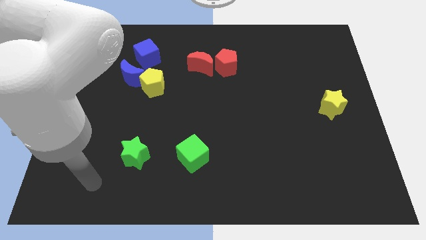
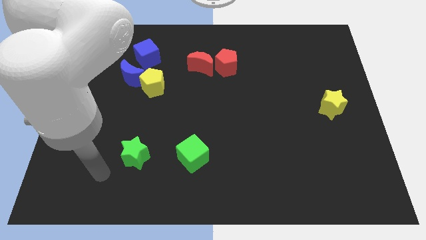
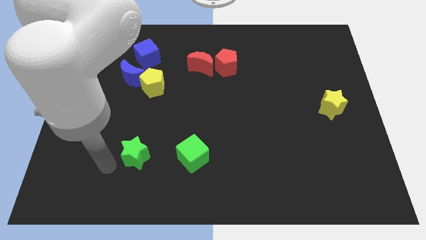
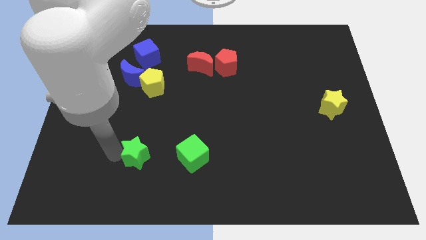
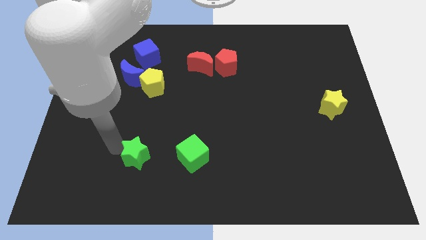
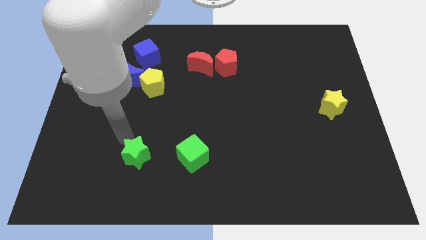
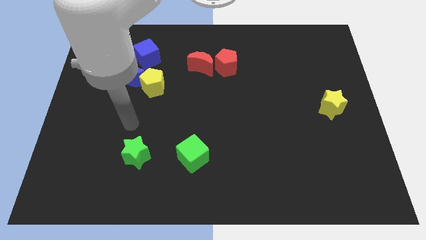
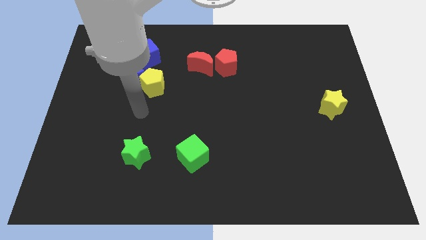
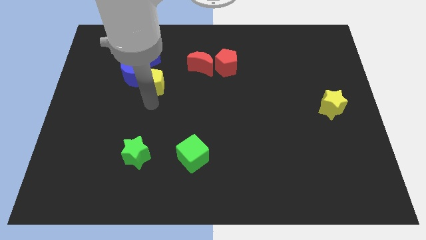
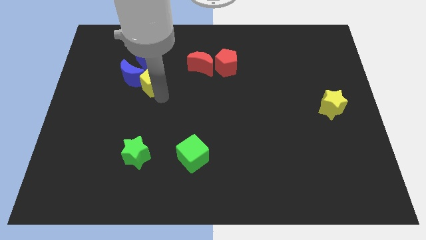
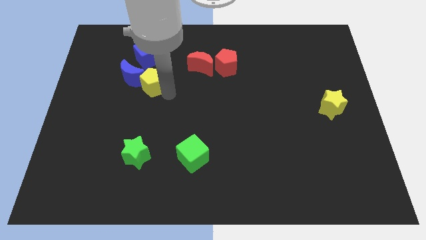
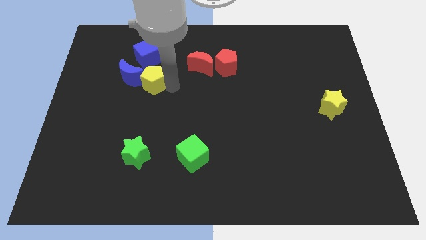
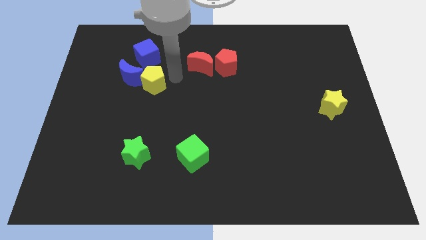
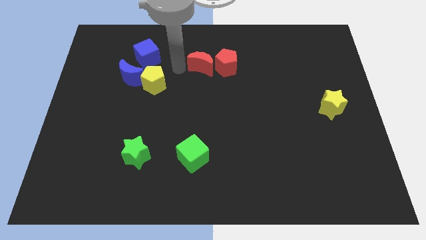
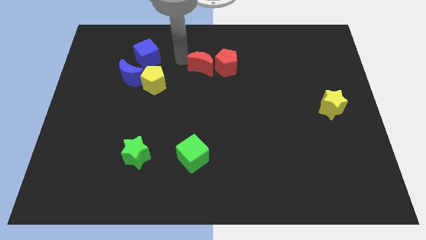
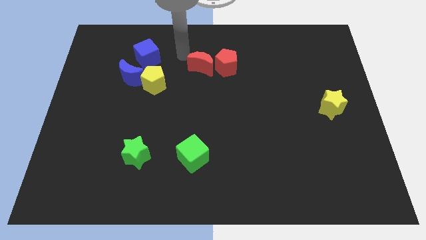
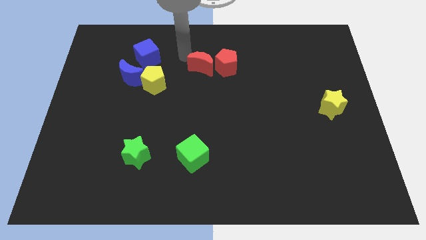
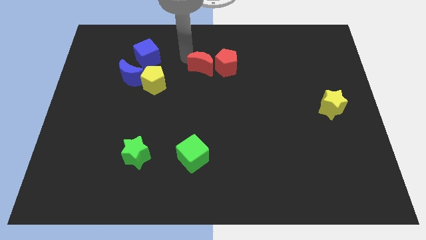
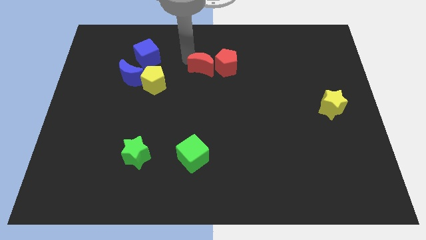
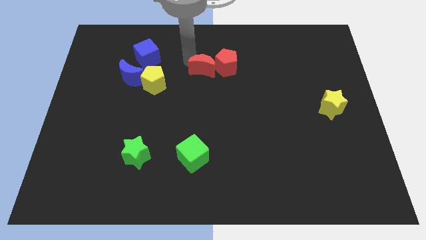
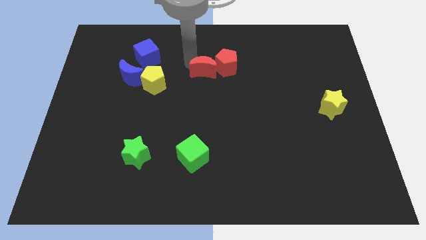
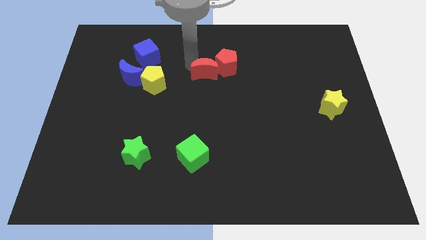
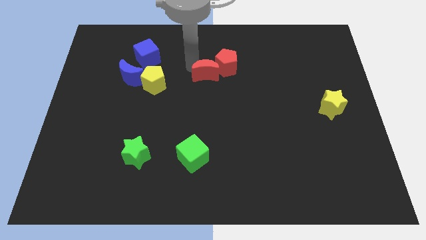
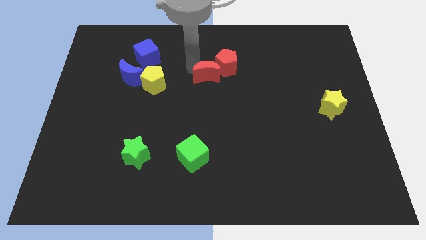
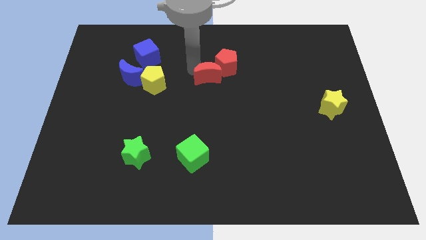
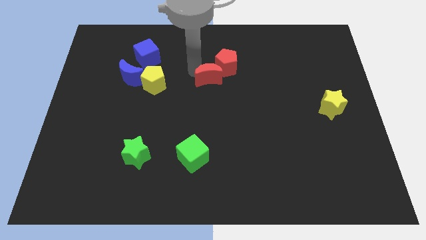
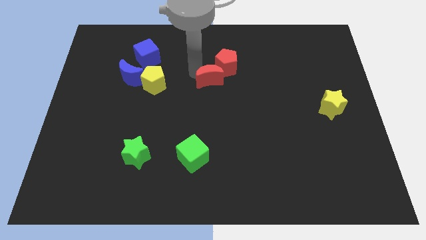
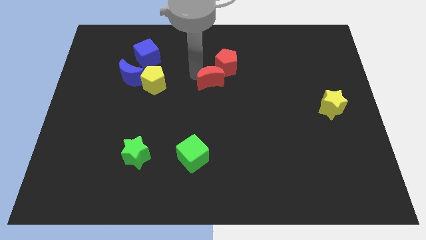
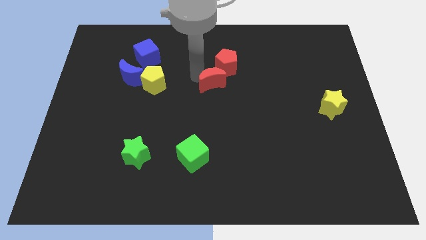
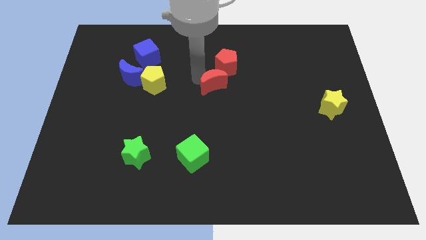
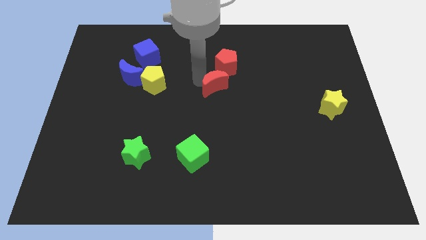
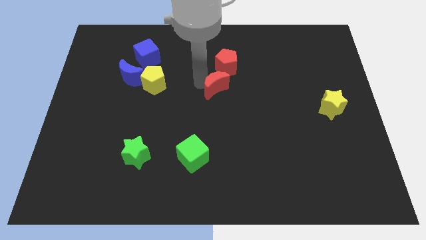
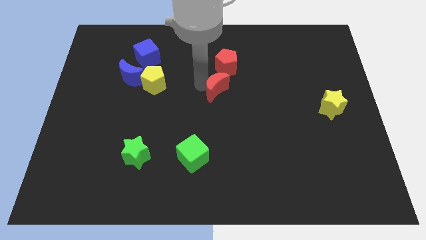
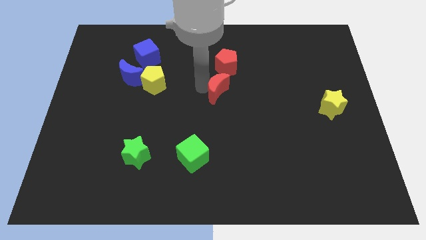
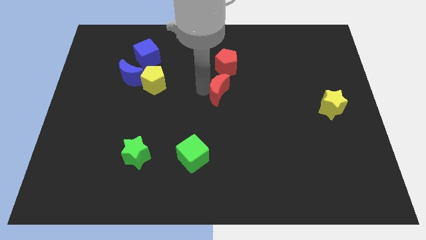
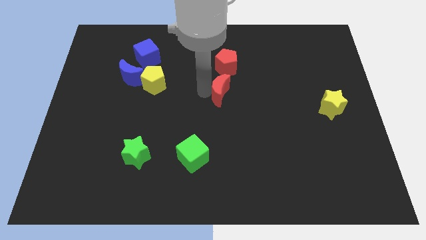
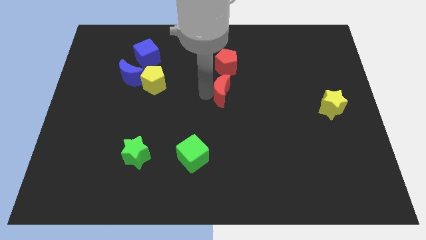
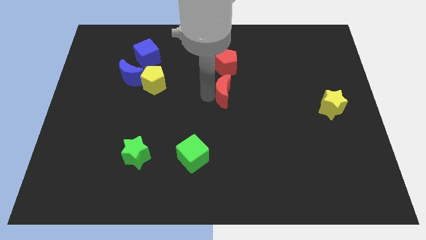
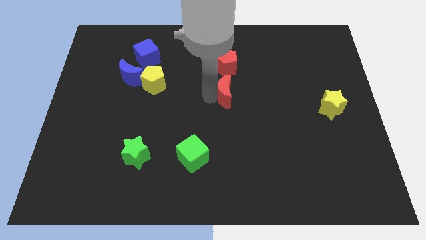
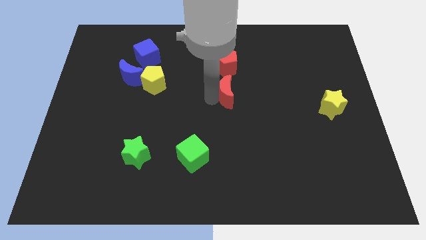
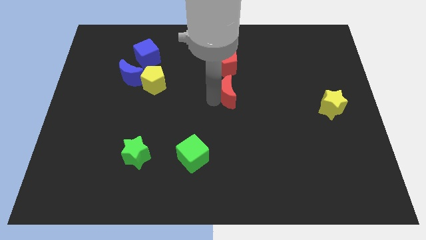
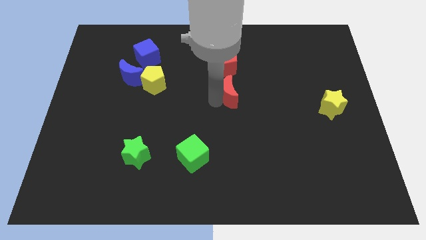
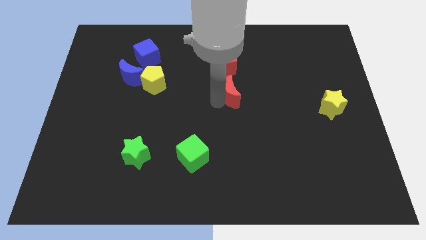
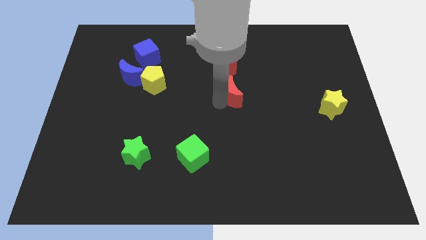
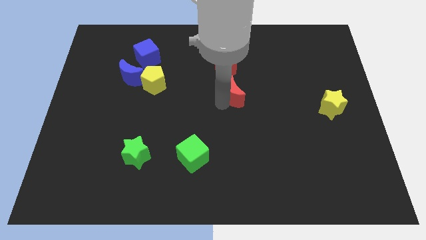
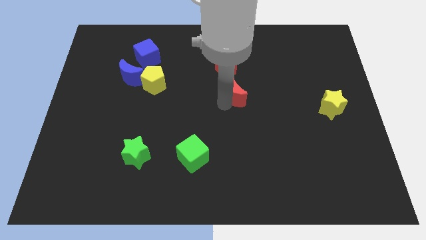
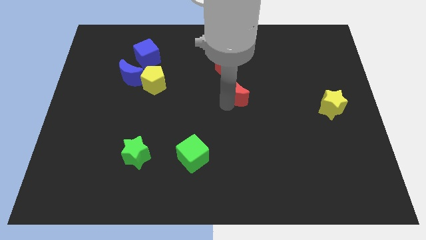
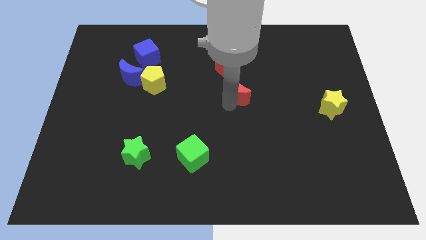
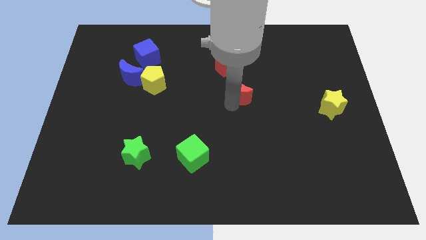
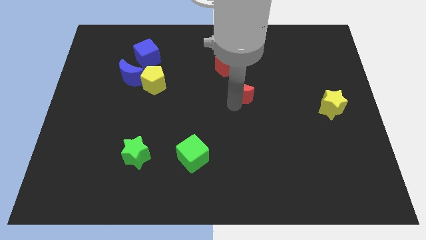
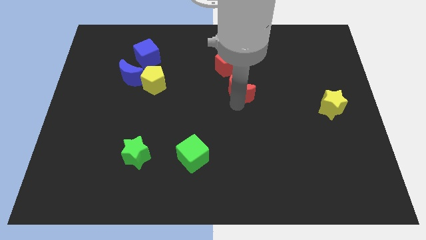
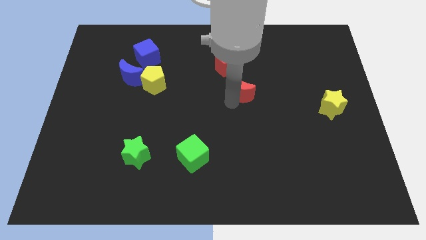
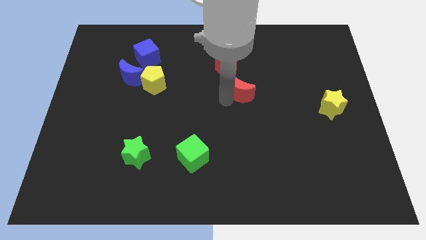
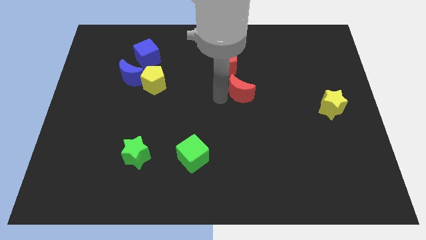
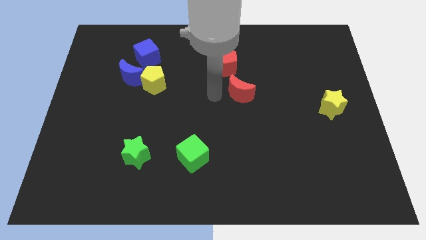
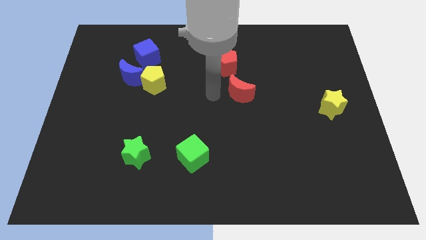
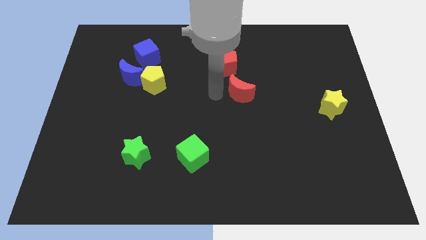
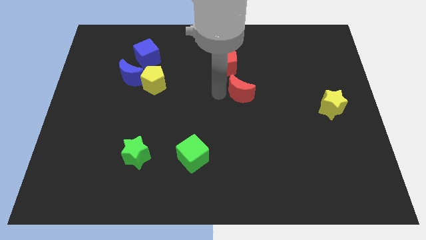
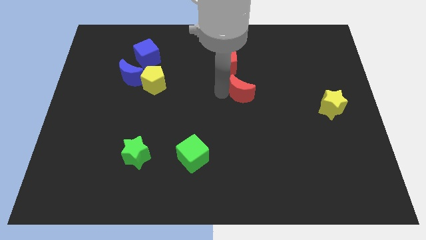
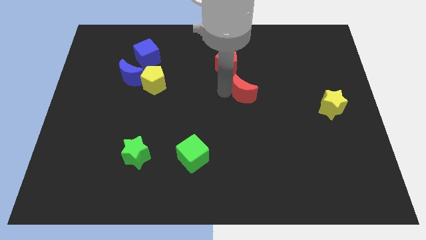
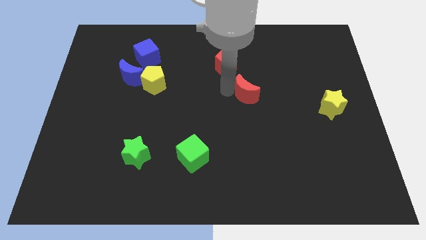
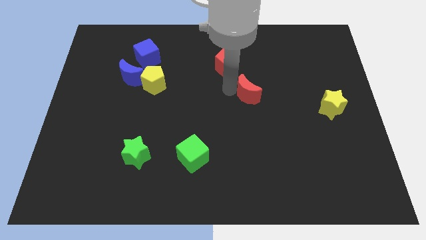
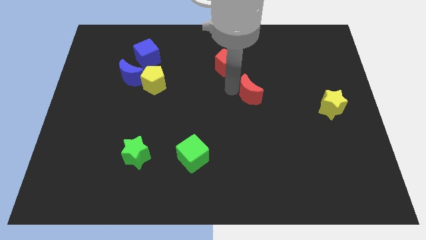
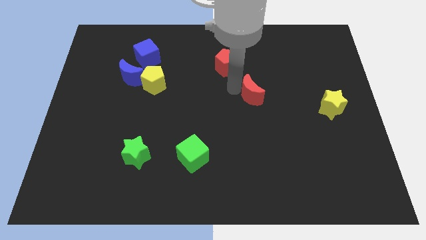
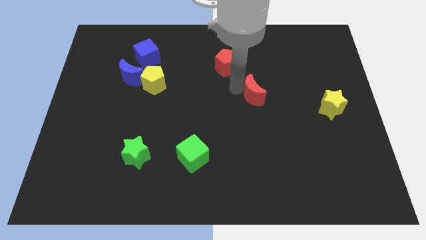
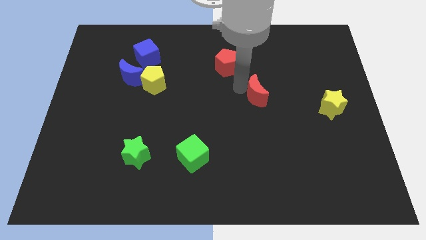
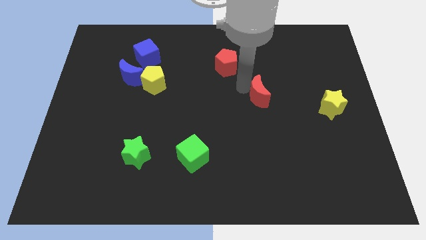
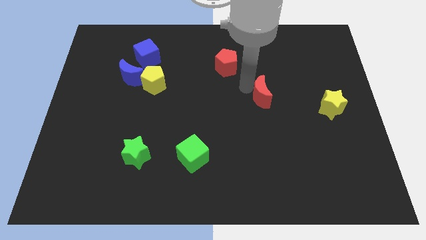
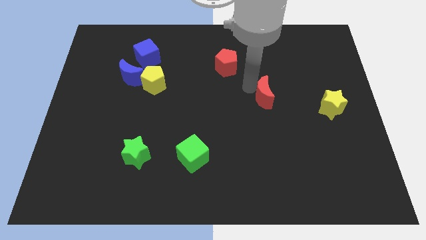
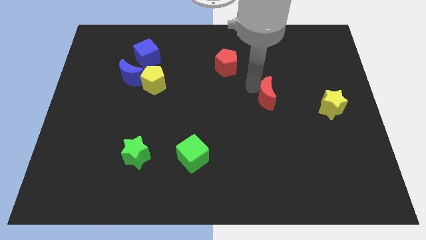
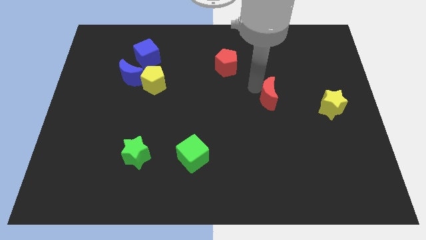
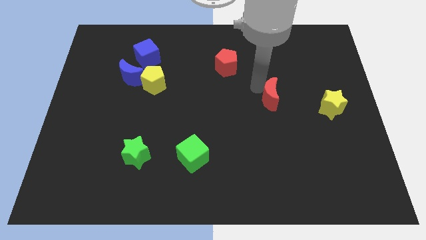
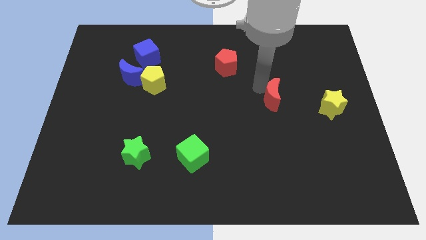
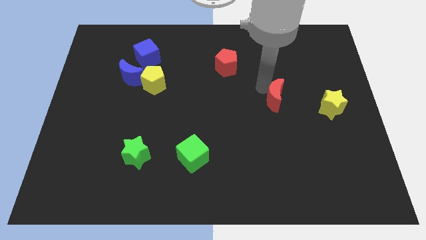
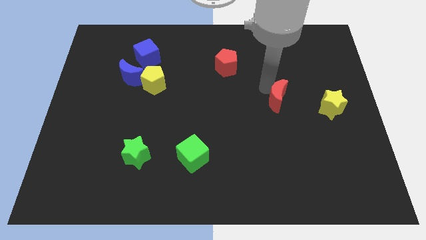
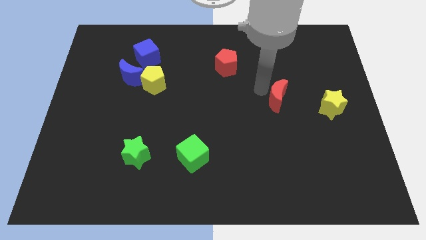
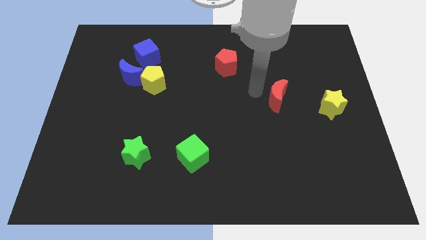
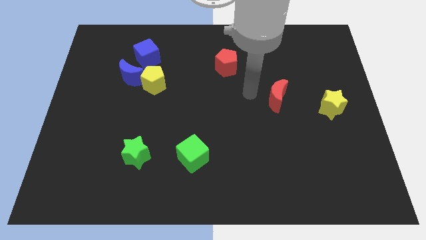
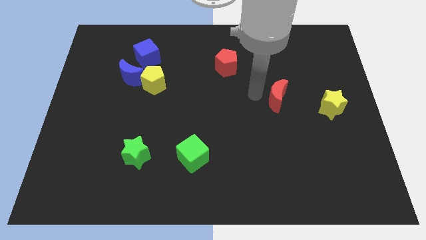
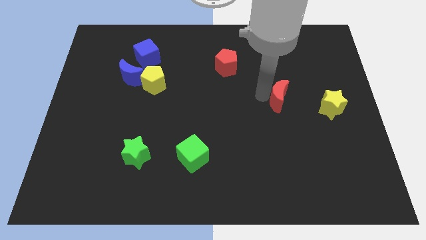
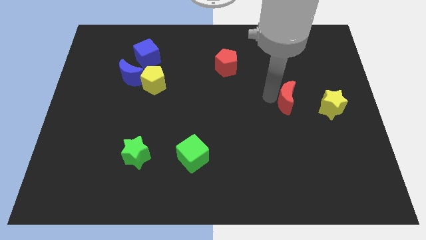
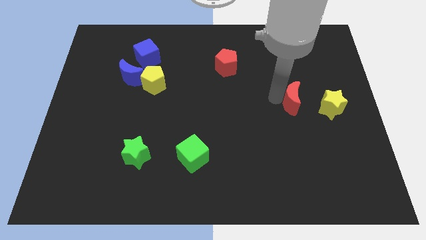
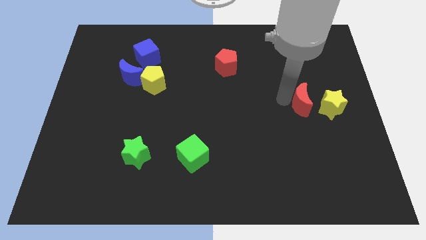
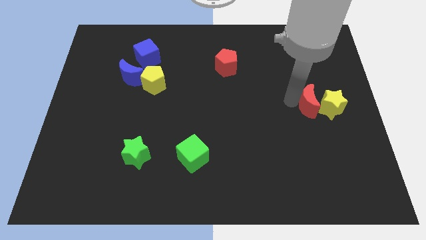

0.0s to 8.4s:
move the red moon to the yellow star

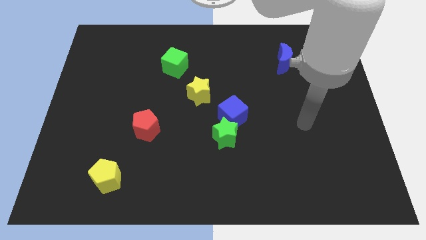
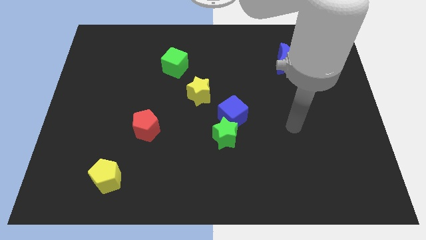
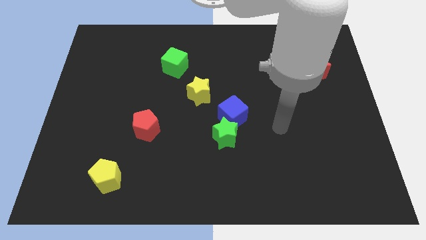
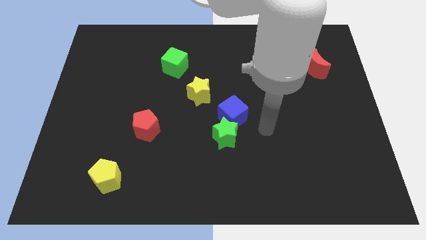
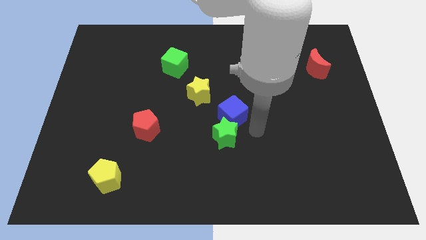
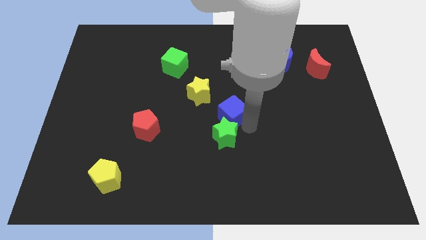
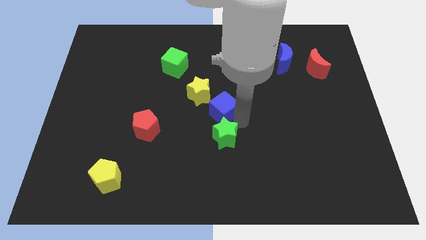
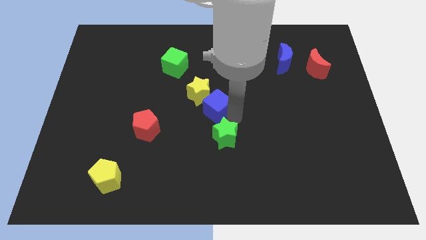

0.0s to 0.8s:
push the blue cube close to the yellow star
